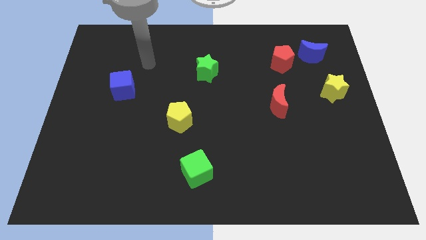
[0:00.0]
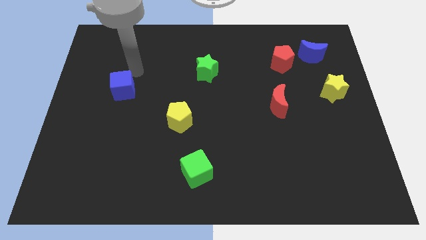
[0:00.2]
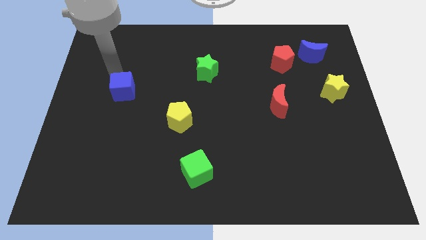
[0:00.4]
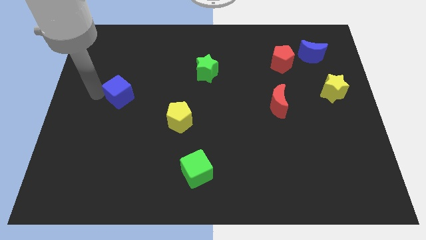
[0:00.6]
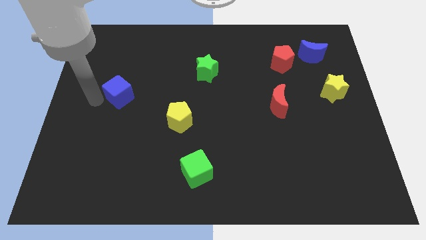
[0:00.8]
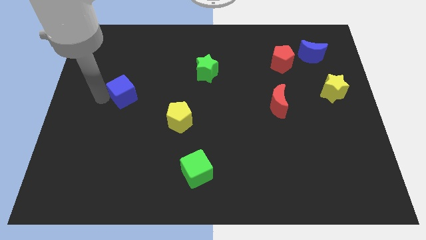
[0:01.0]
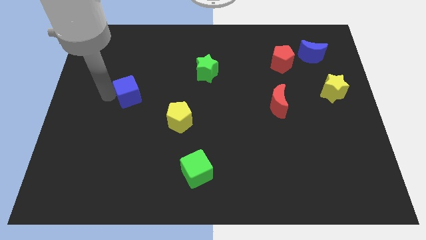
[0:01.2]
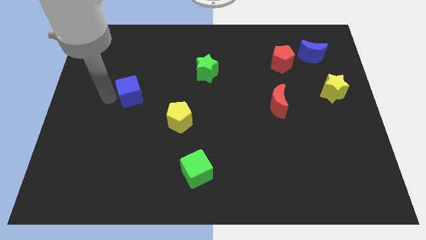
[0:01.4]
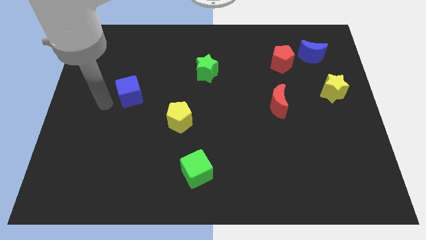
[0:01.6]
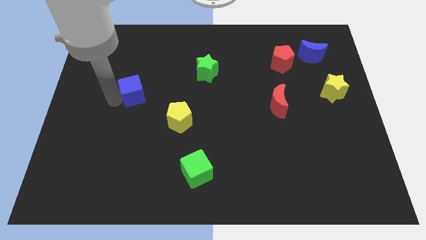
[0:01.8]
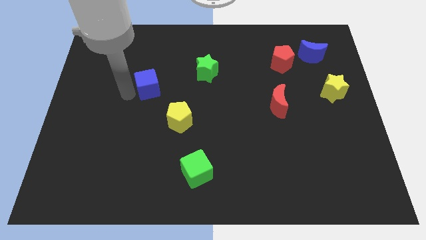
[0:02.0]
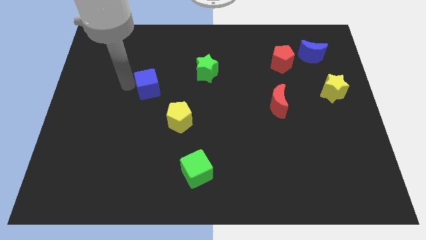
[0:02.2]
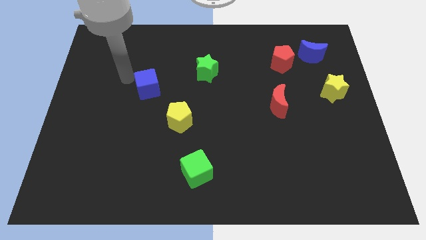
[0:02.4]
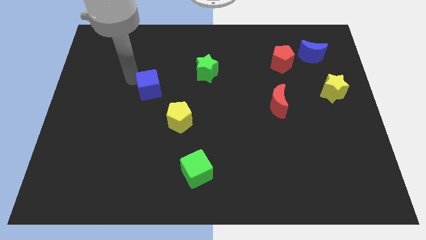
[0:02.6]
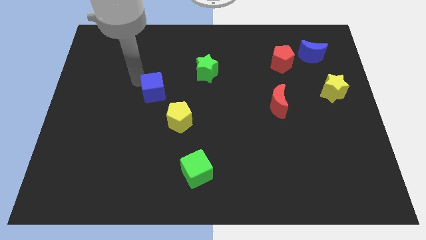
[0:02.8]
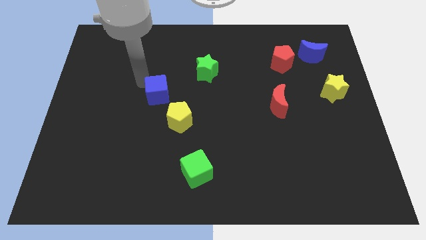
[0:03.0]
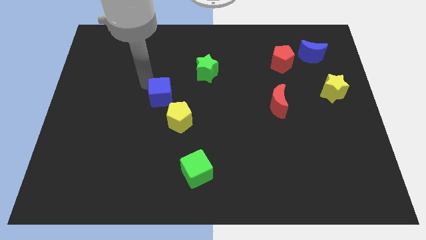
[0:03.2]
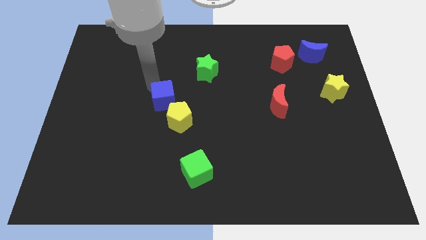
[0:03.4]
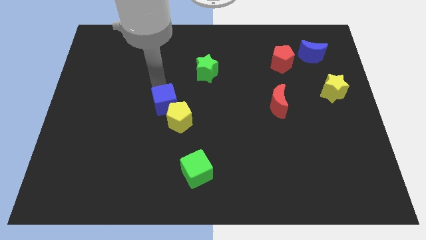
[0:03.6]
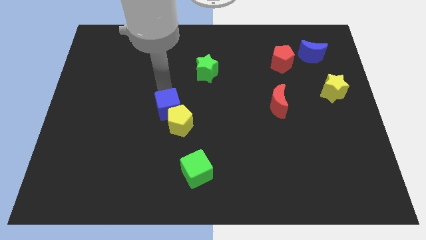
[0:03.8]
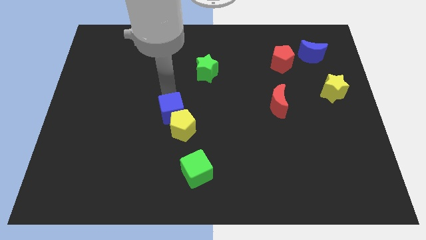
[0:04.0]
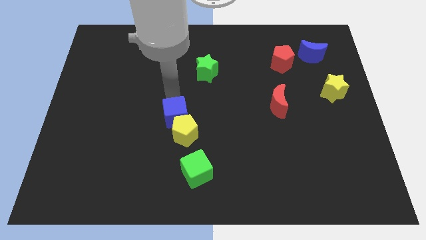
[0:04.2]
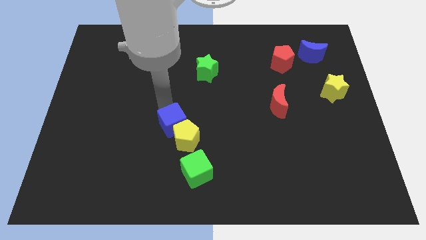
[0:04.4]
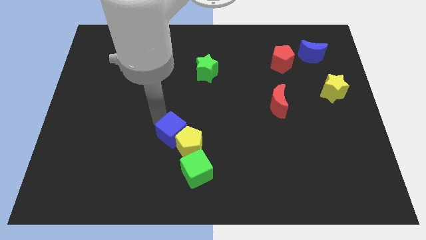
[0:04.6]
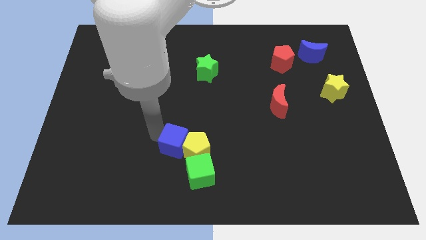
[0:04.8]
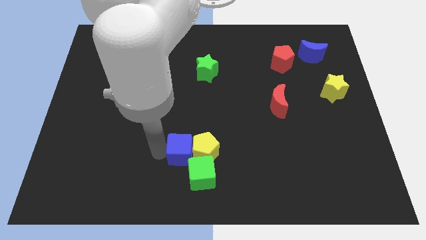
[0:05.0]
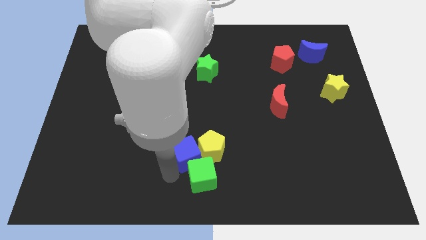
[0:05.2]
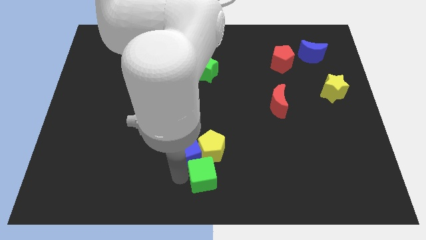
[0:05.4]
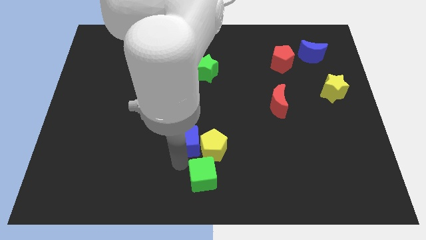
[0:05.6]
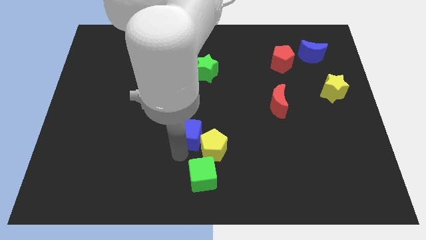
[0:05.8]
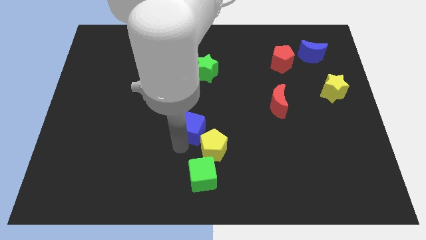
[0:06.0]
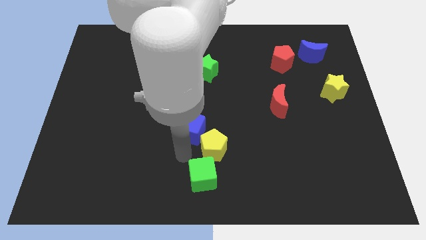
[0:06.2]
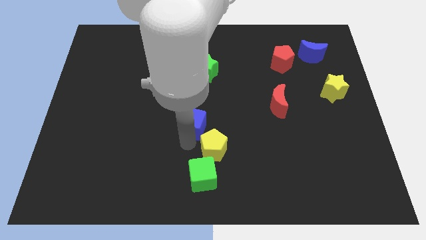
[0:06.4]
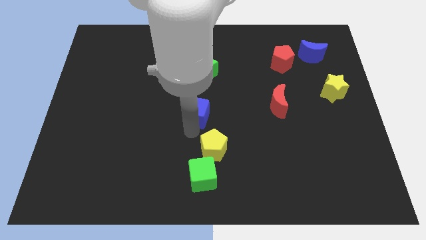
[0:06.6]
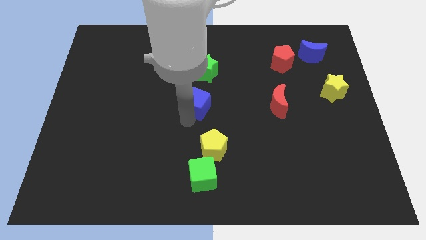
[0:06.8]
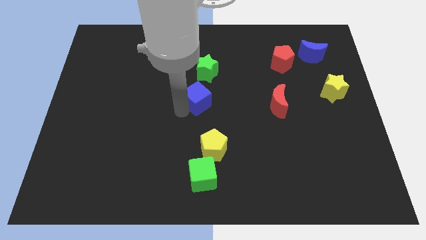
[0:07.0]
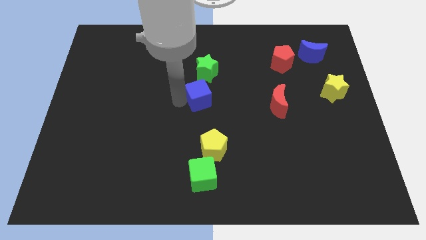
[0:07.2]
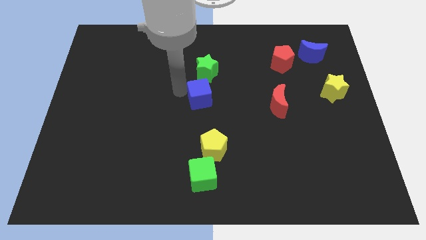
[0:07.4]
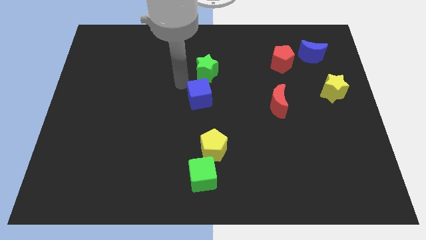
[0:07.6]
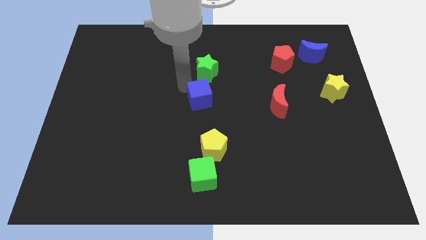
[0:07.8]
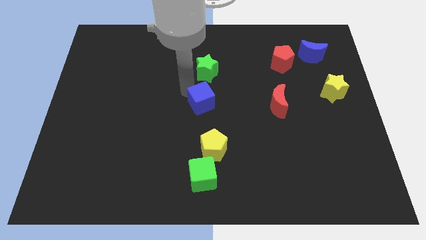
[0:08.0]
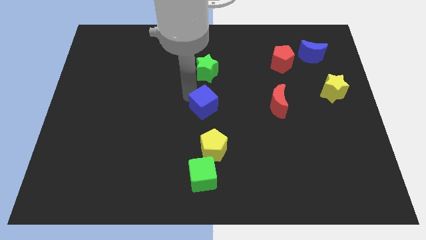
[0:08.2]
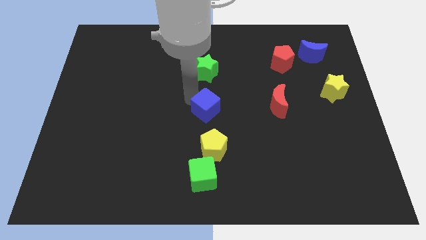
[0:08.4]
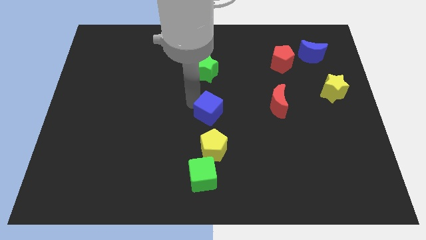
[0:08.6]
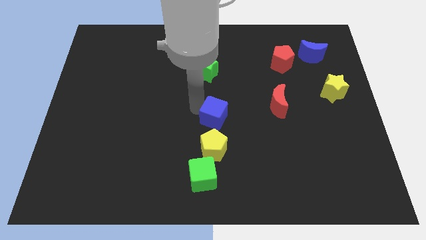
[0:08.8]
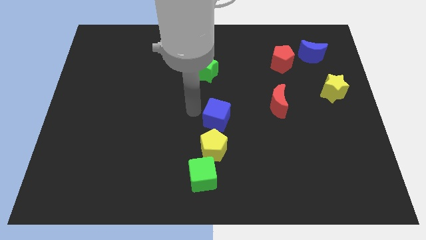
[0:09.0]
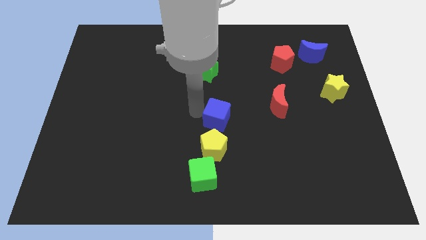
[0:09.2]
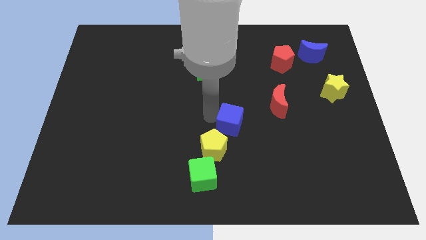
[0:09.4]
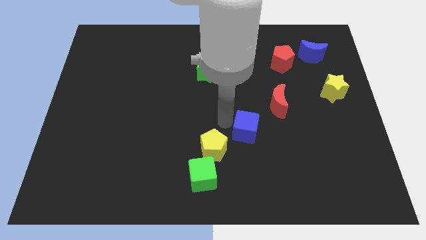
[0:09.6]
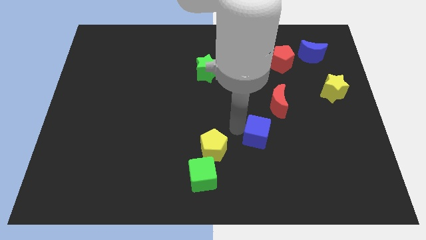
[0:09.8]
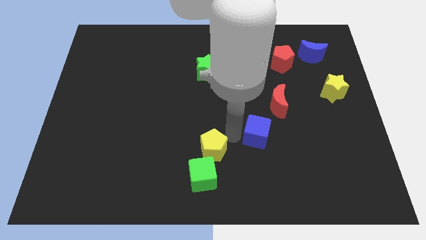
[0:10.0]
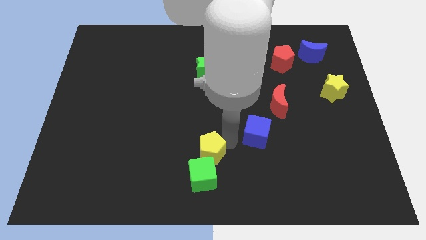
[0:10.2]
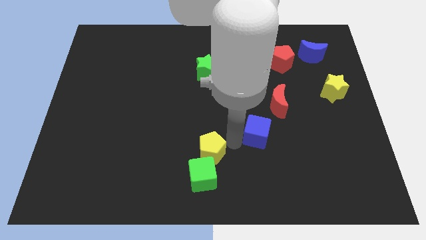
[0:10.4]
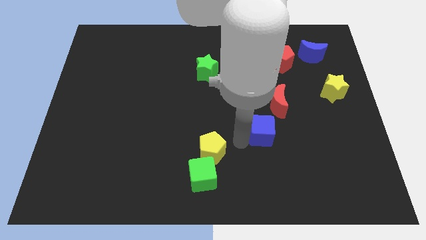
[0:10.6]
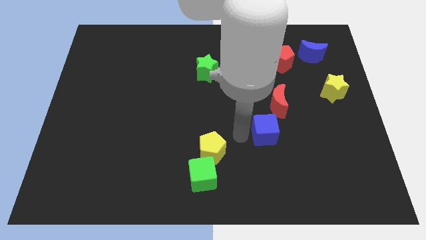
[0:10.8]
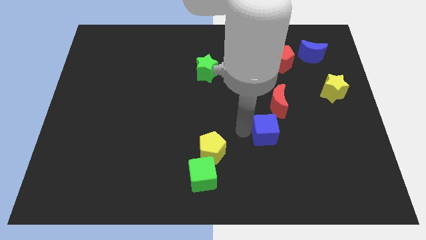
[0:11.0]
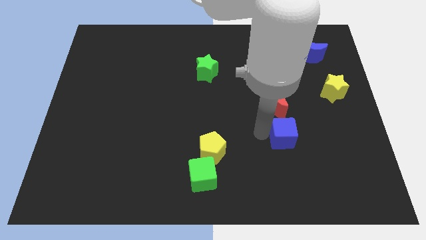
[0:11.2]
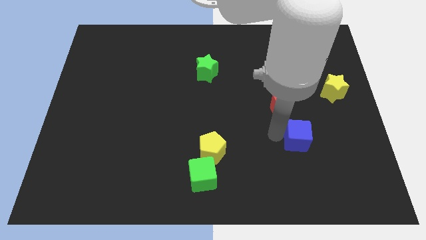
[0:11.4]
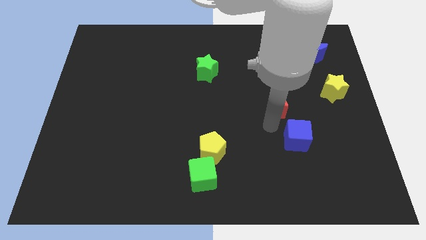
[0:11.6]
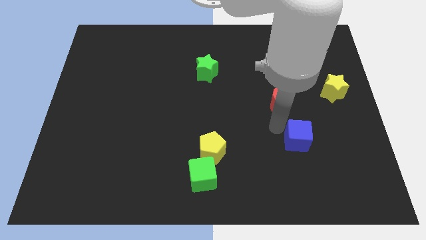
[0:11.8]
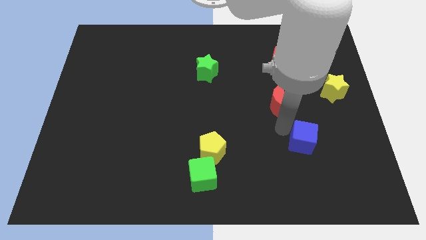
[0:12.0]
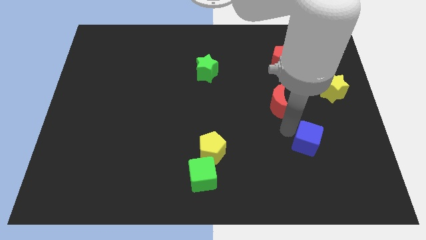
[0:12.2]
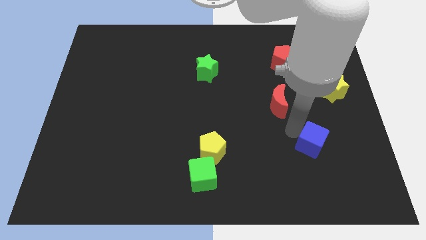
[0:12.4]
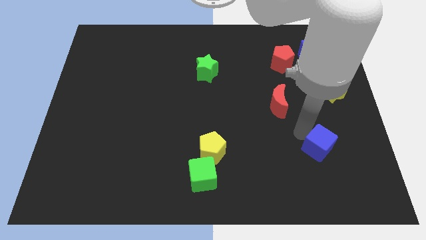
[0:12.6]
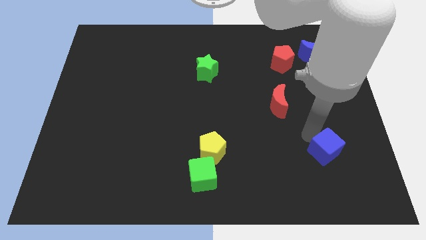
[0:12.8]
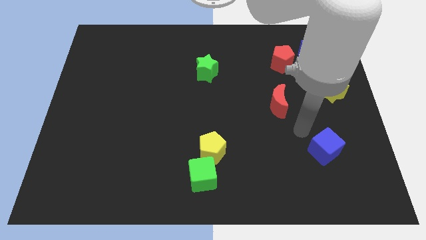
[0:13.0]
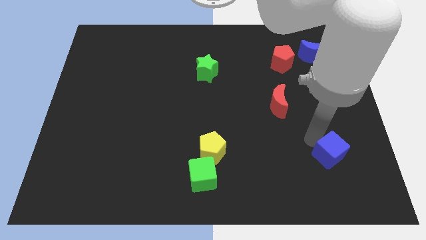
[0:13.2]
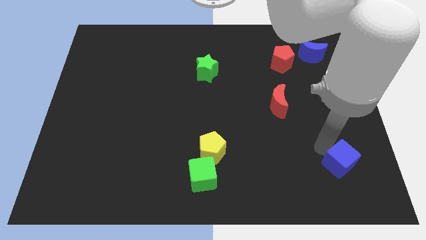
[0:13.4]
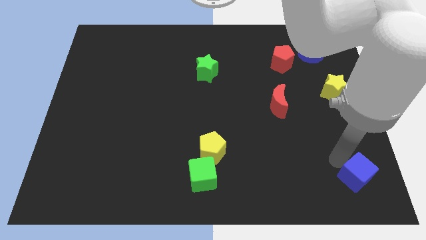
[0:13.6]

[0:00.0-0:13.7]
move the blue cube to the lower right corner
